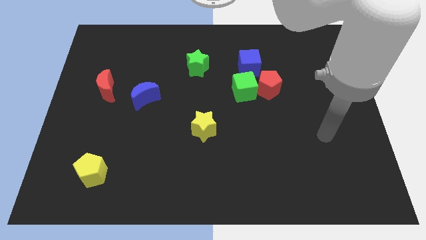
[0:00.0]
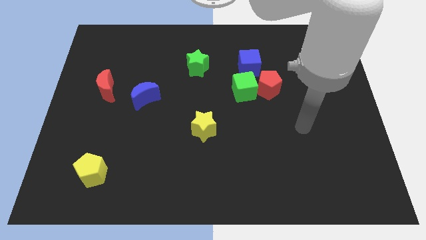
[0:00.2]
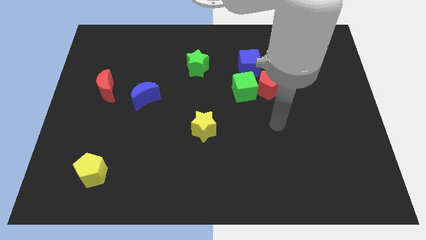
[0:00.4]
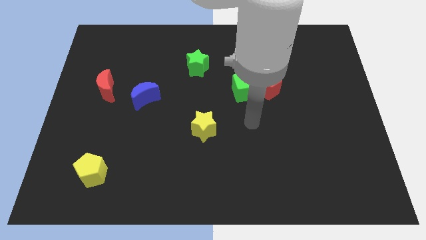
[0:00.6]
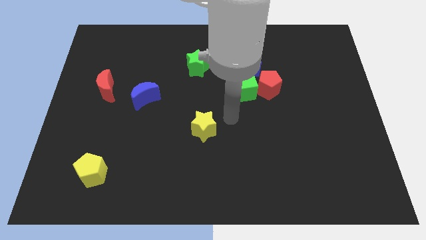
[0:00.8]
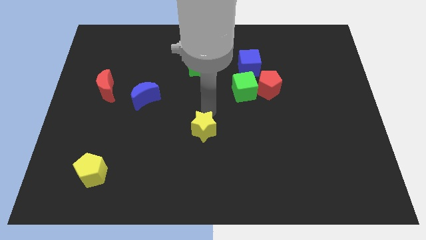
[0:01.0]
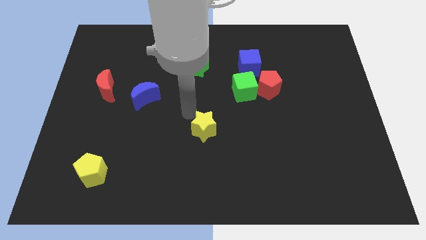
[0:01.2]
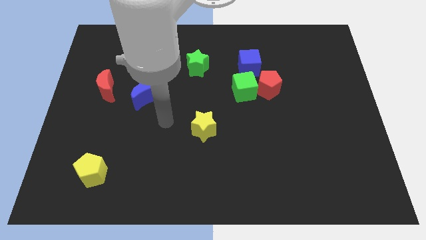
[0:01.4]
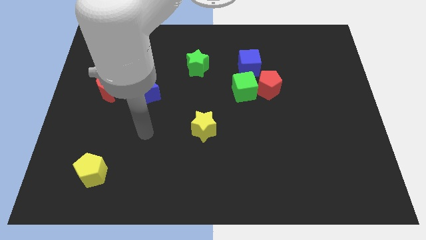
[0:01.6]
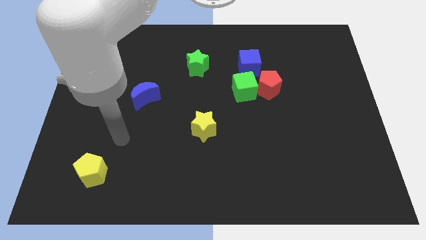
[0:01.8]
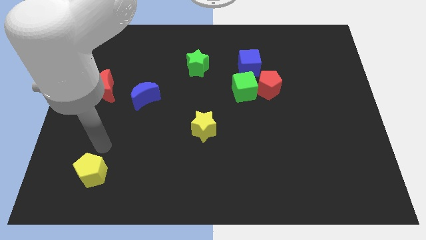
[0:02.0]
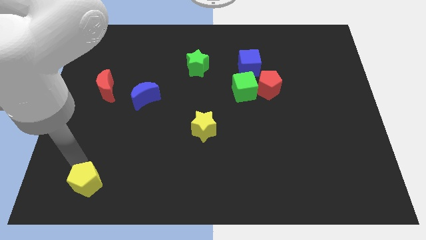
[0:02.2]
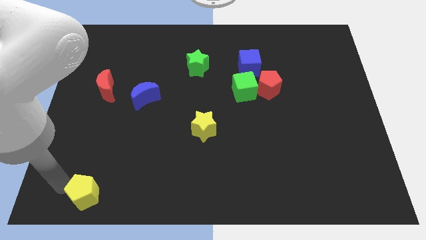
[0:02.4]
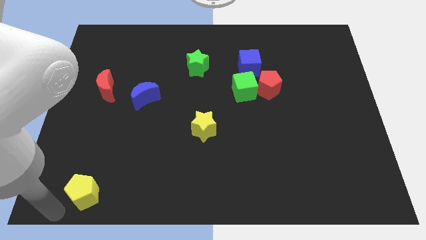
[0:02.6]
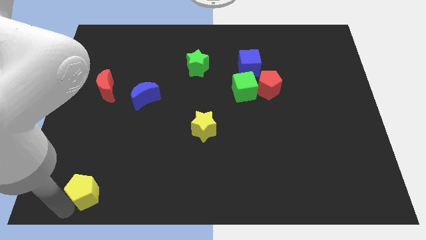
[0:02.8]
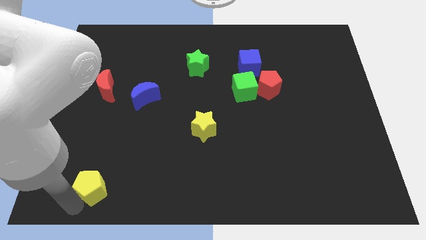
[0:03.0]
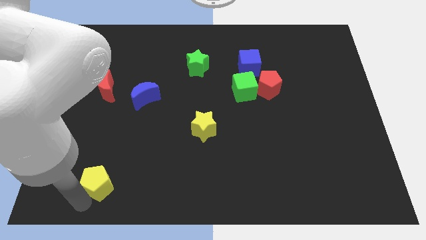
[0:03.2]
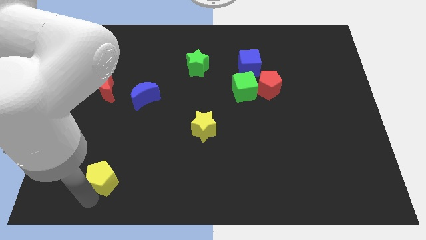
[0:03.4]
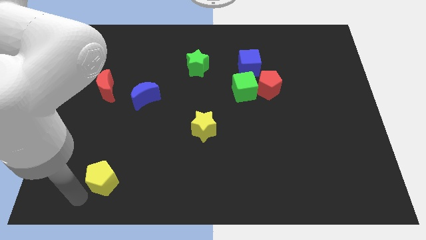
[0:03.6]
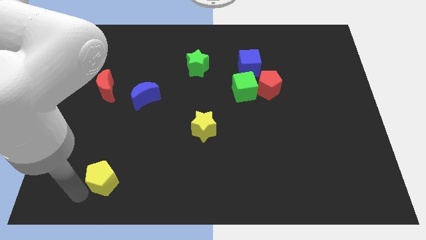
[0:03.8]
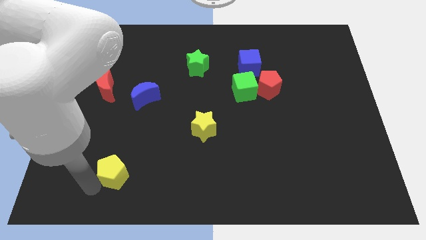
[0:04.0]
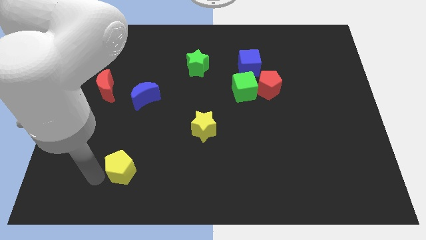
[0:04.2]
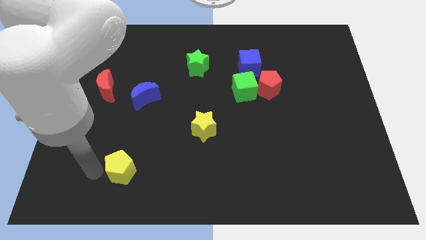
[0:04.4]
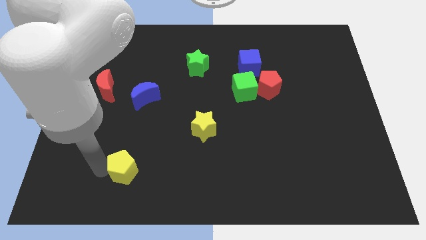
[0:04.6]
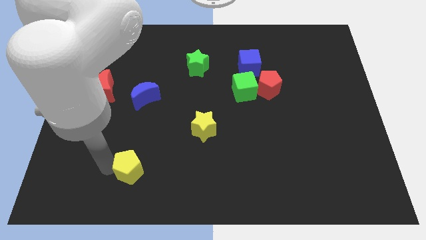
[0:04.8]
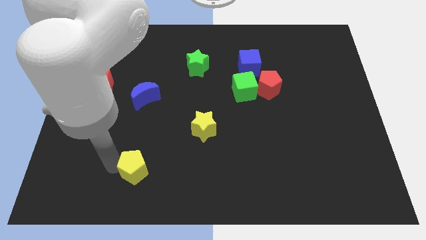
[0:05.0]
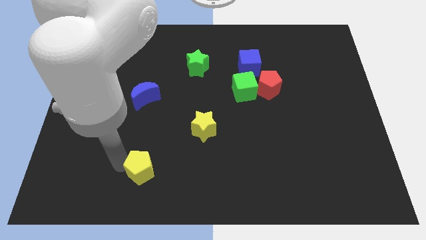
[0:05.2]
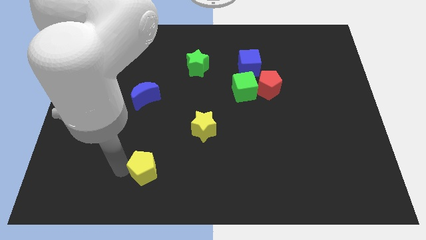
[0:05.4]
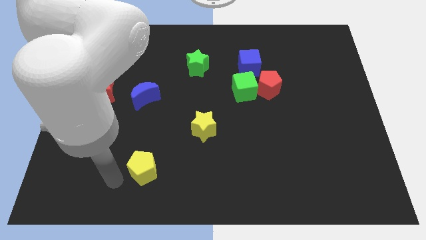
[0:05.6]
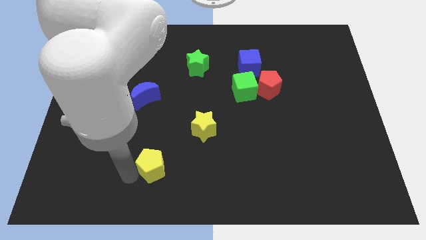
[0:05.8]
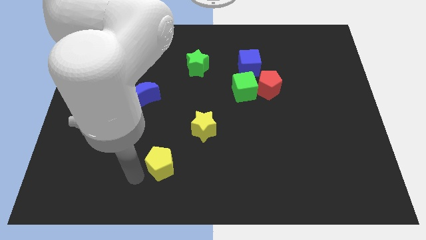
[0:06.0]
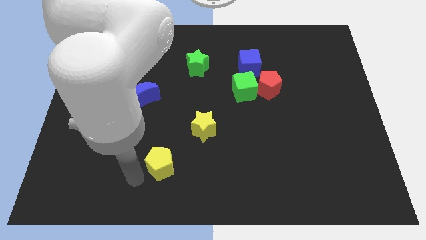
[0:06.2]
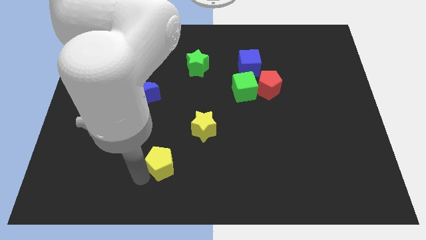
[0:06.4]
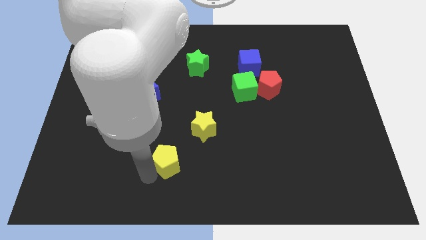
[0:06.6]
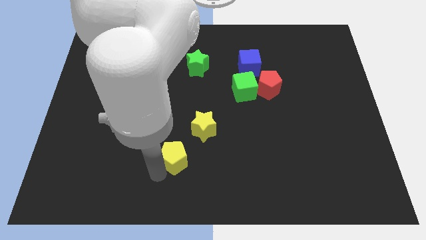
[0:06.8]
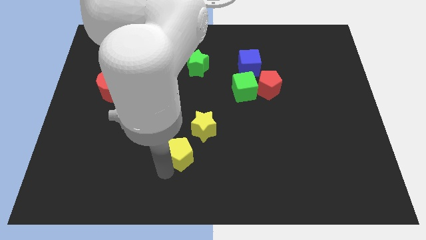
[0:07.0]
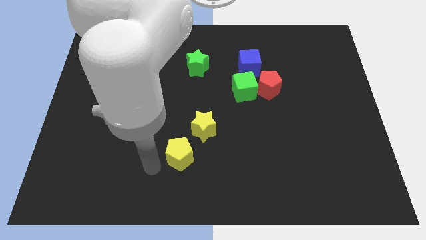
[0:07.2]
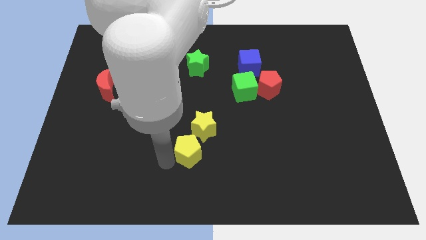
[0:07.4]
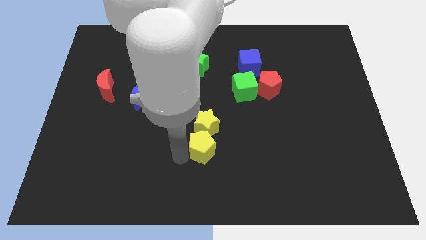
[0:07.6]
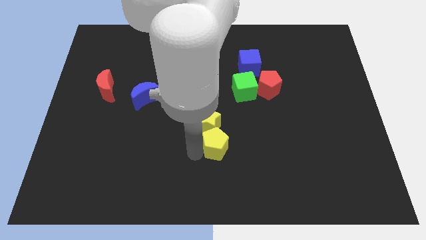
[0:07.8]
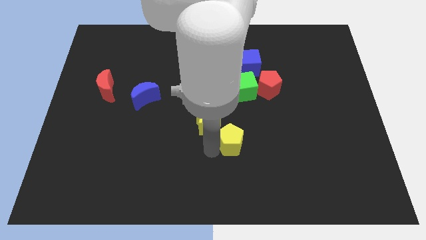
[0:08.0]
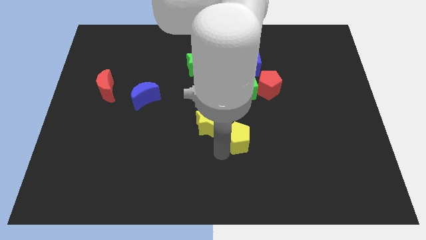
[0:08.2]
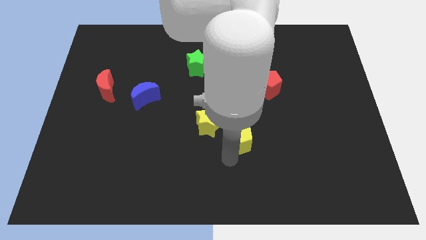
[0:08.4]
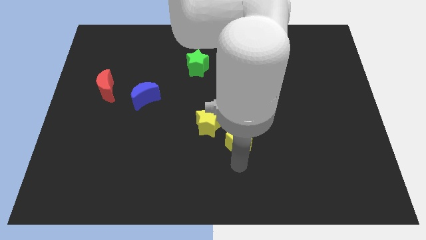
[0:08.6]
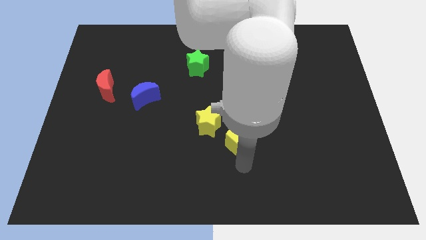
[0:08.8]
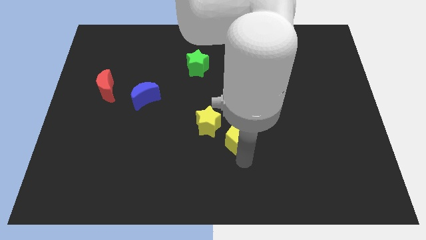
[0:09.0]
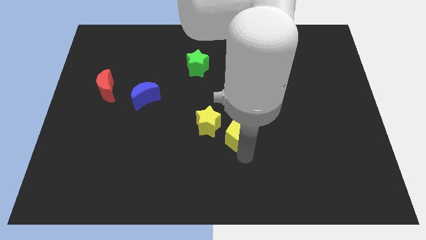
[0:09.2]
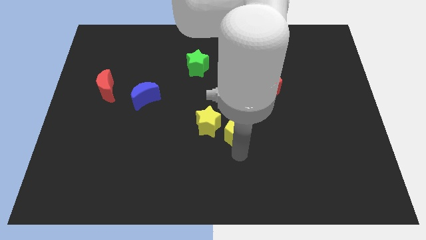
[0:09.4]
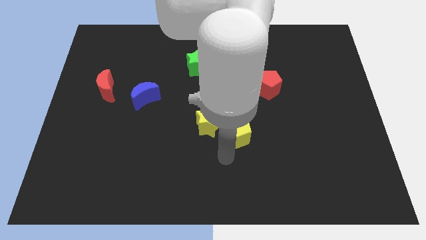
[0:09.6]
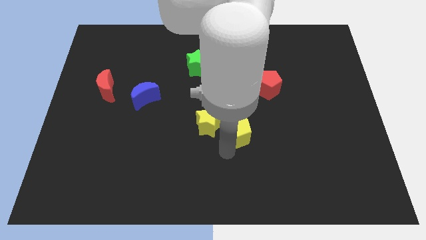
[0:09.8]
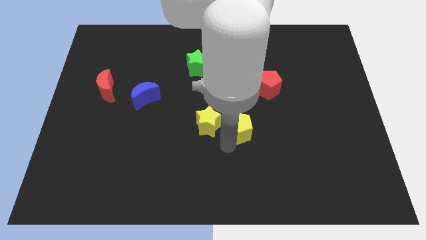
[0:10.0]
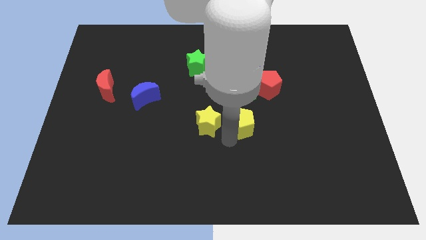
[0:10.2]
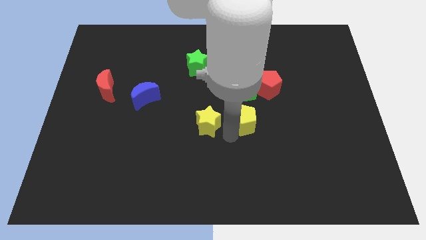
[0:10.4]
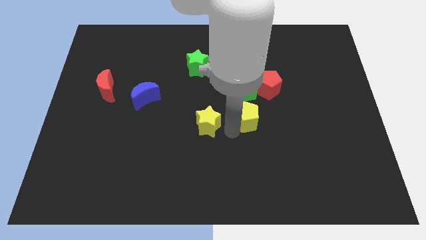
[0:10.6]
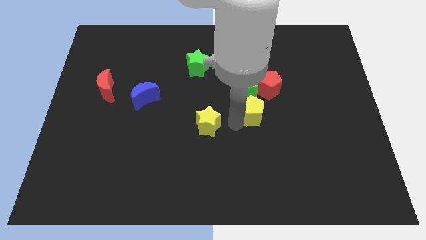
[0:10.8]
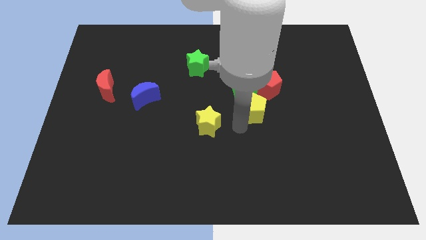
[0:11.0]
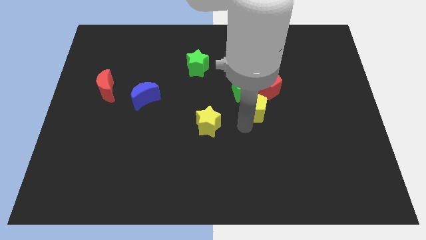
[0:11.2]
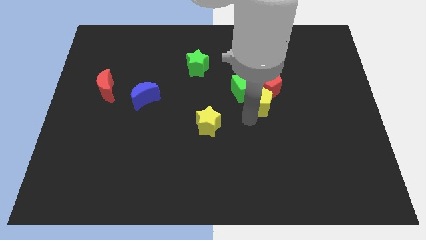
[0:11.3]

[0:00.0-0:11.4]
move the yellow pentagon towards the red pentagon

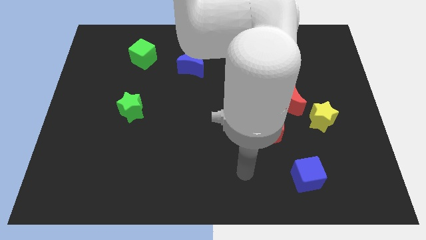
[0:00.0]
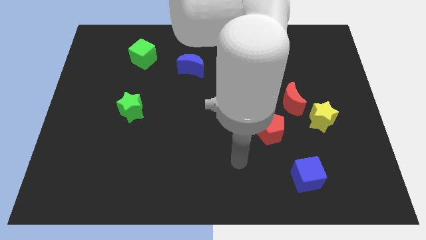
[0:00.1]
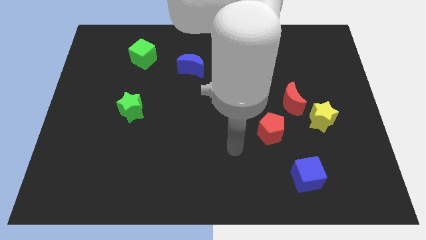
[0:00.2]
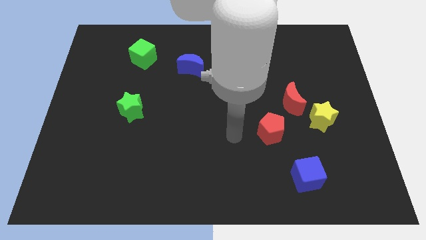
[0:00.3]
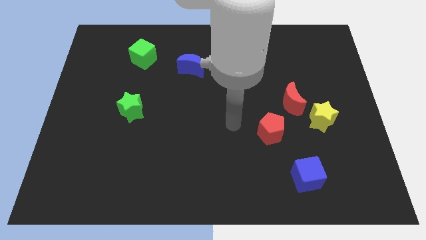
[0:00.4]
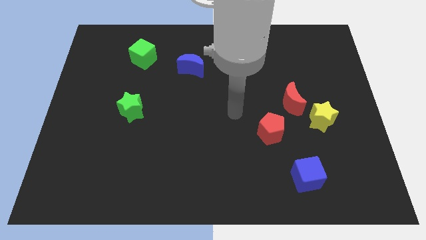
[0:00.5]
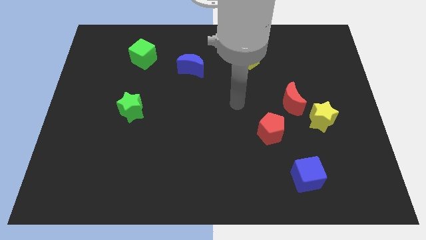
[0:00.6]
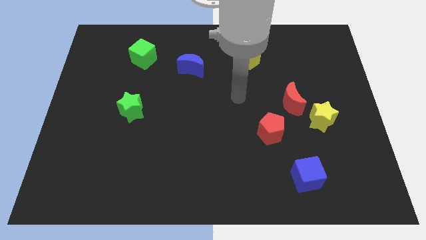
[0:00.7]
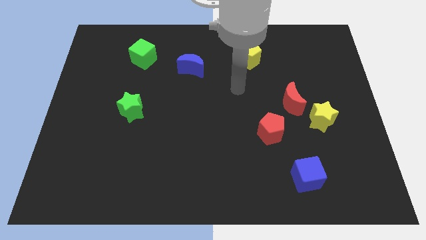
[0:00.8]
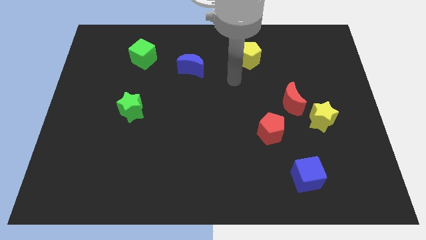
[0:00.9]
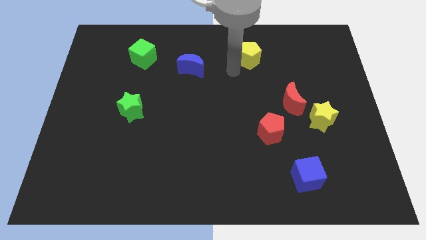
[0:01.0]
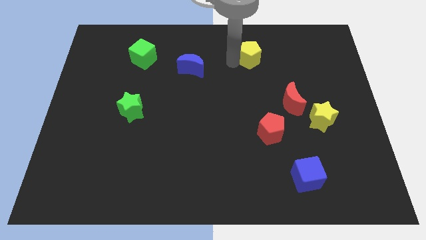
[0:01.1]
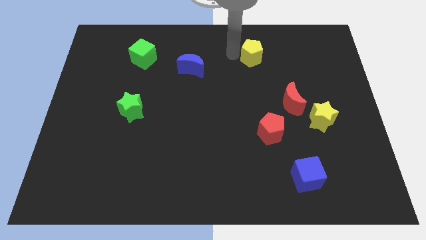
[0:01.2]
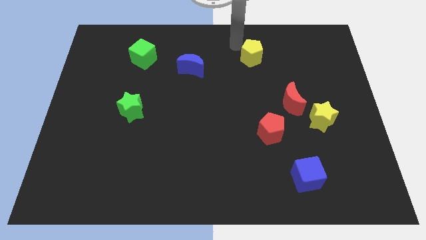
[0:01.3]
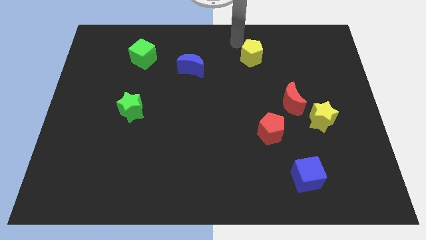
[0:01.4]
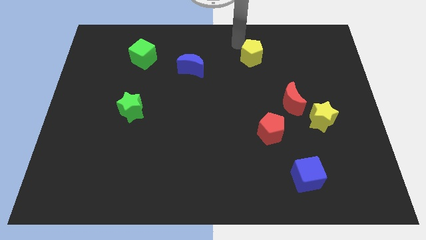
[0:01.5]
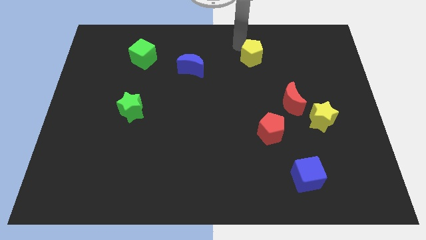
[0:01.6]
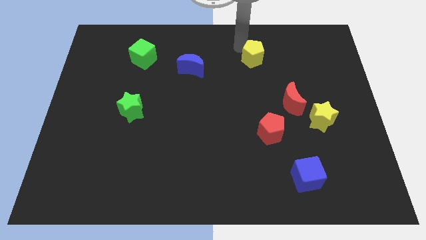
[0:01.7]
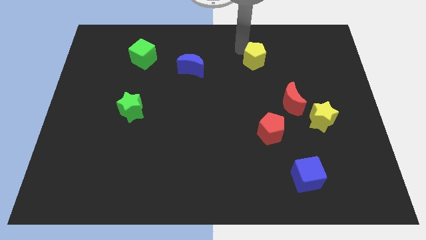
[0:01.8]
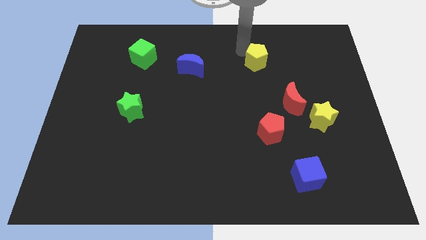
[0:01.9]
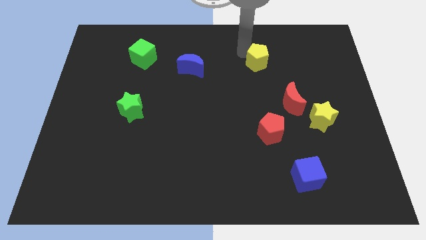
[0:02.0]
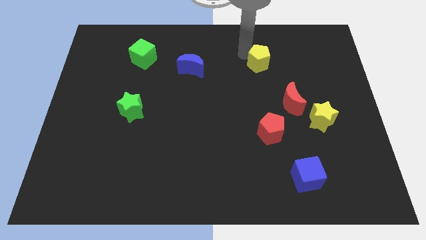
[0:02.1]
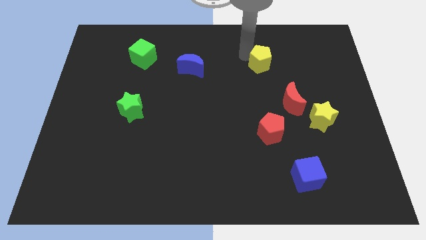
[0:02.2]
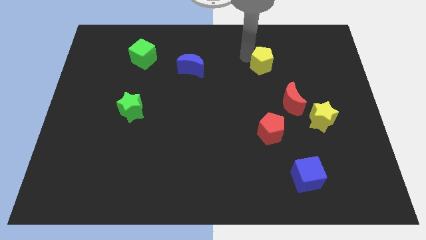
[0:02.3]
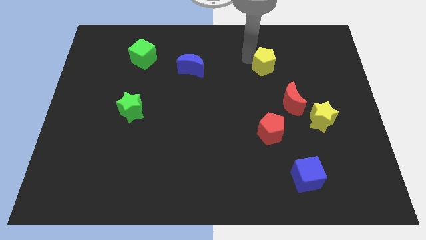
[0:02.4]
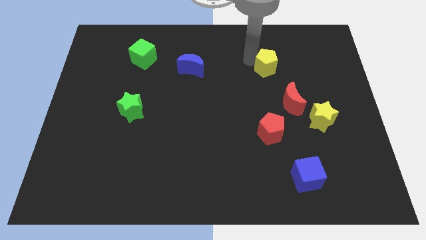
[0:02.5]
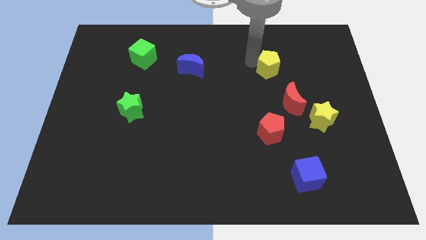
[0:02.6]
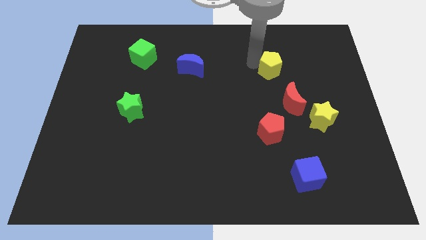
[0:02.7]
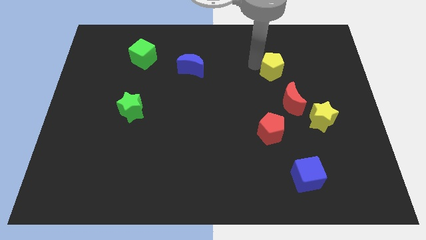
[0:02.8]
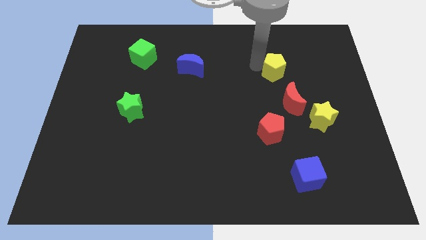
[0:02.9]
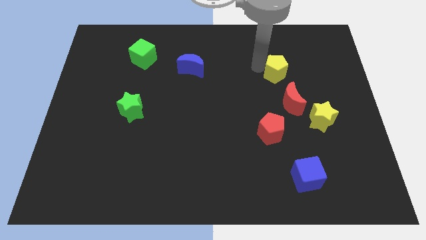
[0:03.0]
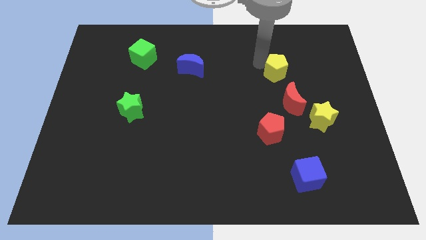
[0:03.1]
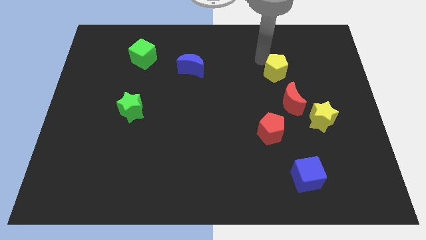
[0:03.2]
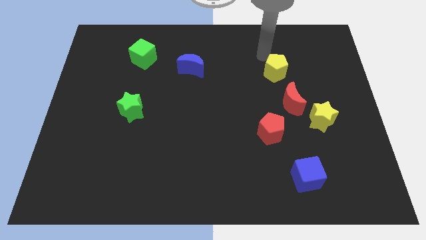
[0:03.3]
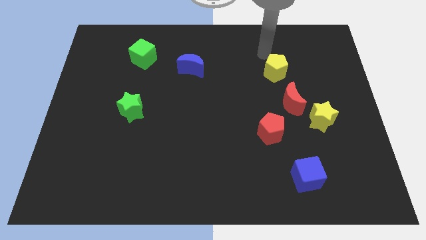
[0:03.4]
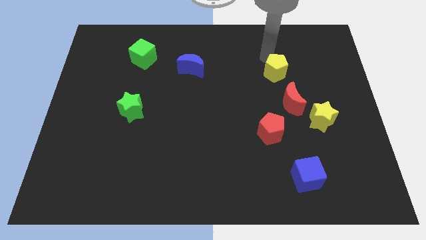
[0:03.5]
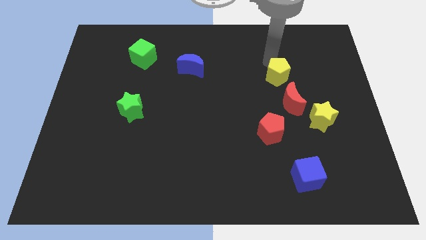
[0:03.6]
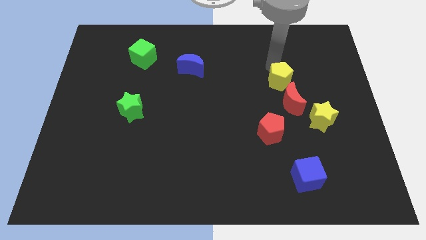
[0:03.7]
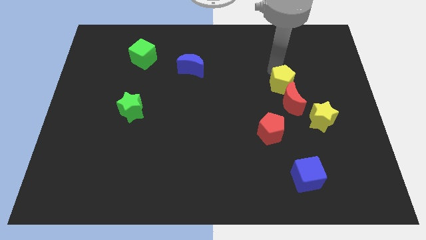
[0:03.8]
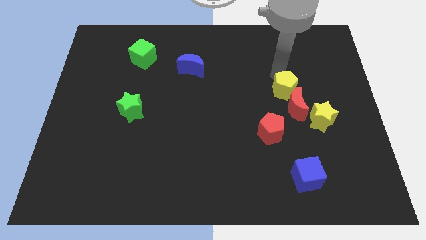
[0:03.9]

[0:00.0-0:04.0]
put the yellow pentagon towards the red moon
